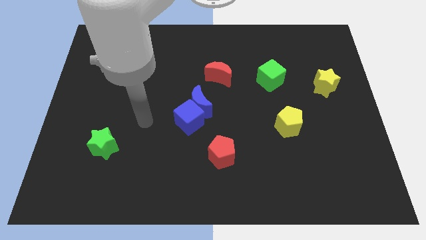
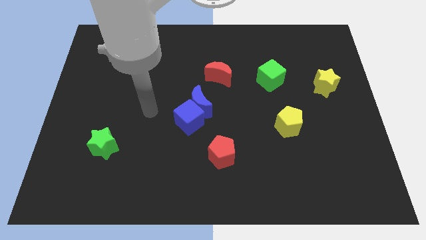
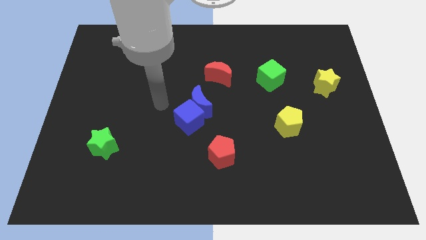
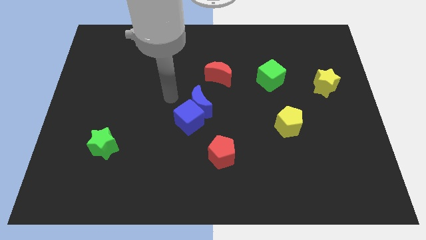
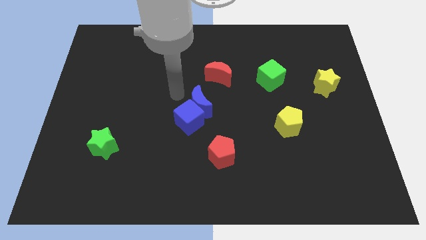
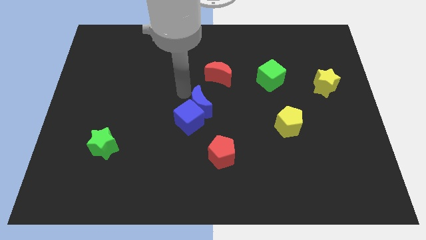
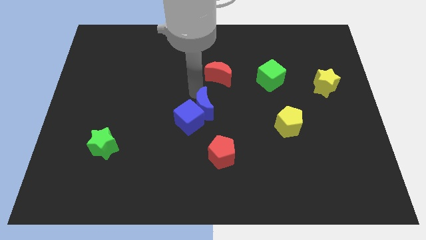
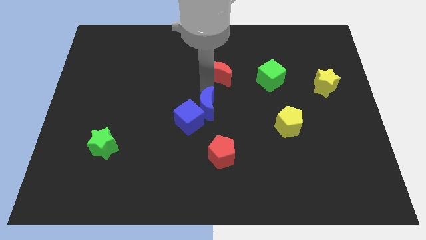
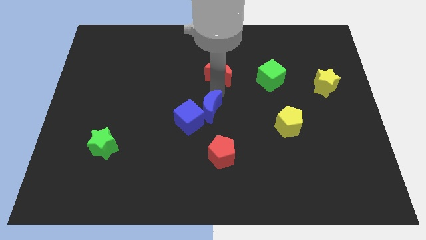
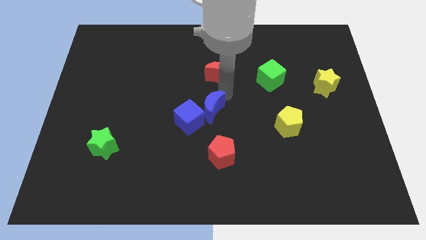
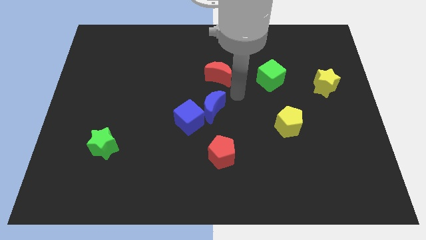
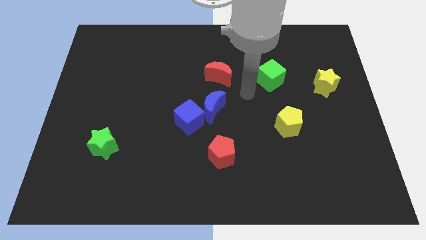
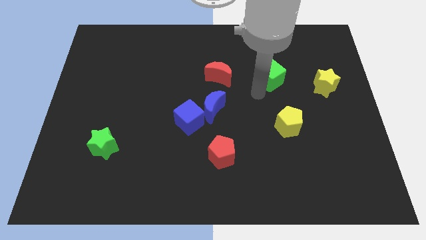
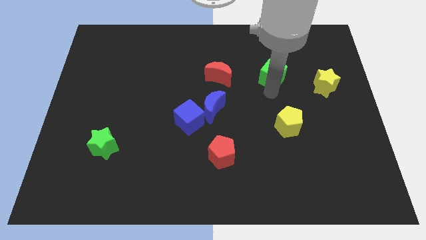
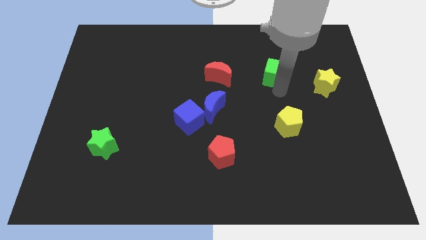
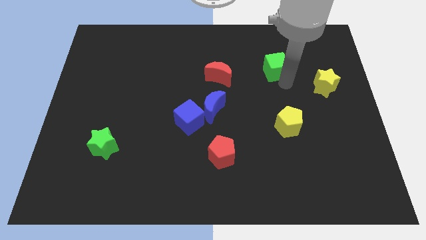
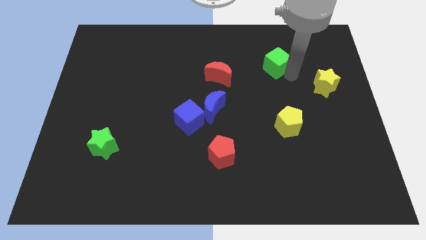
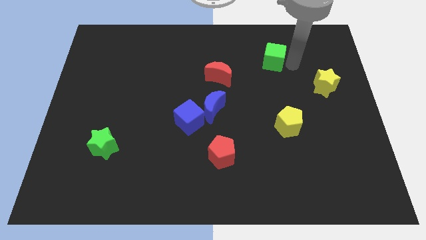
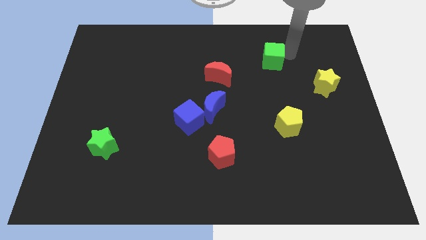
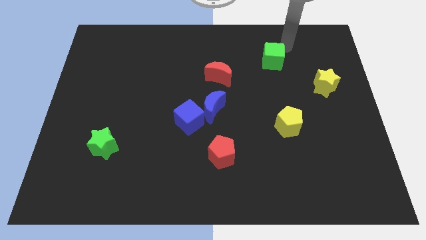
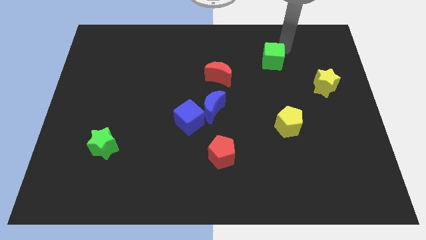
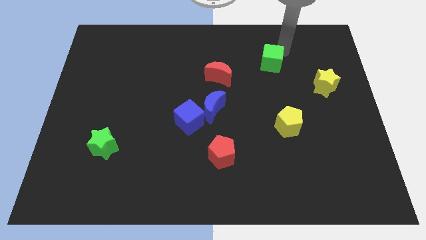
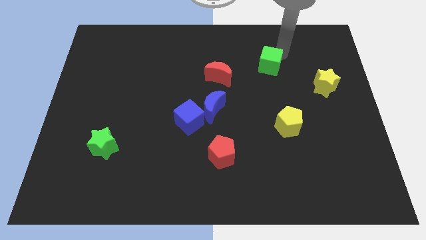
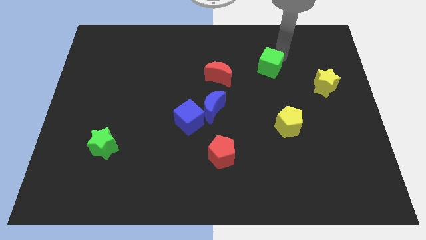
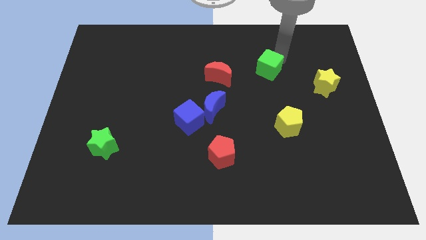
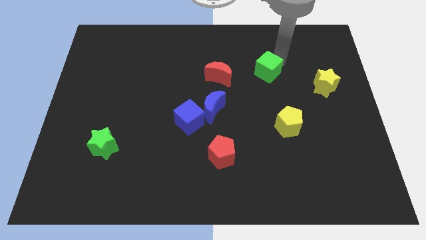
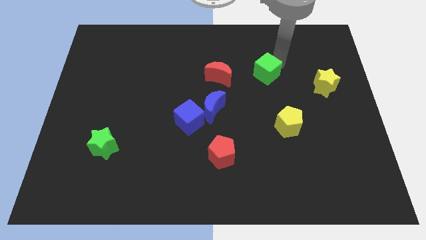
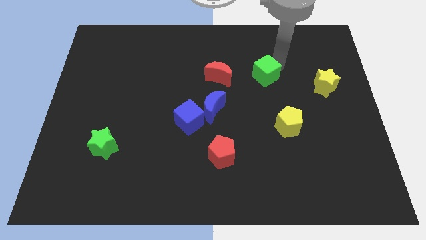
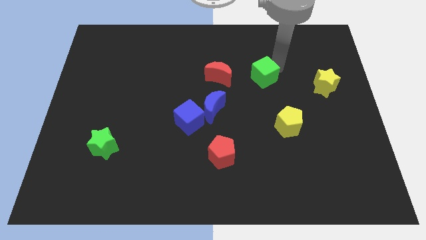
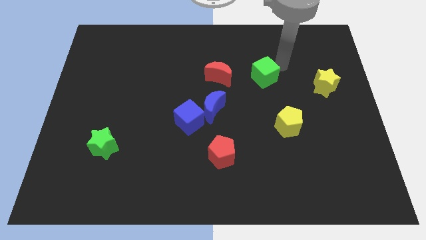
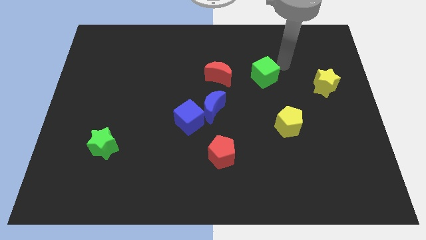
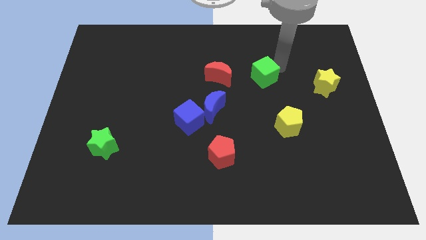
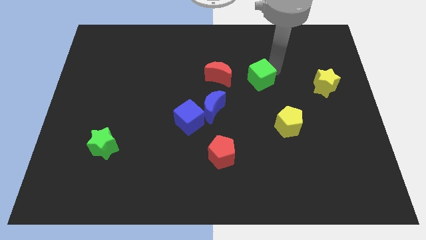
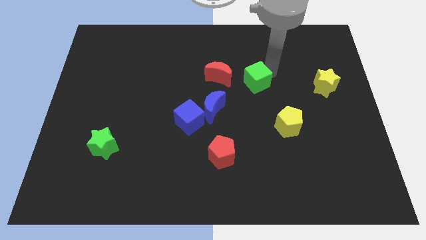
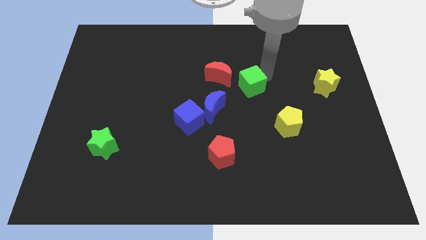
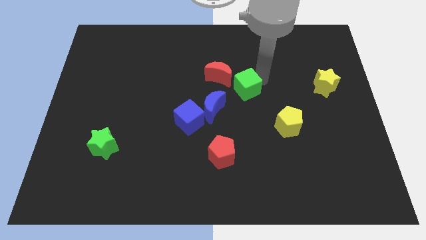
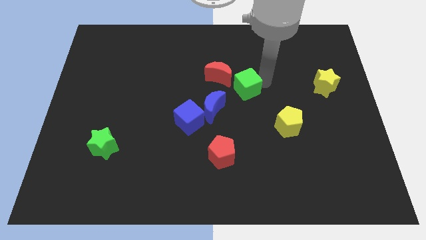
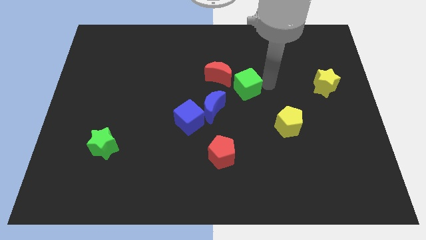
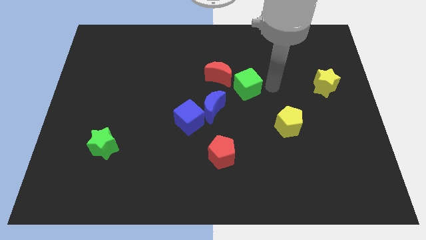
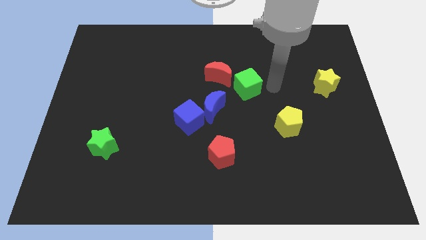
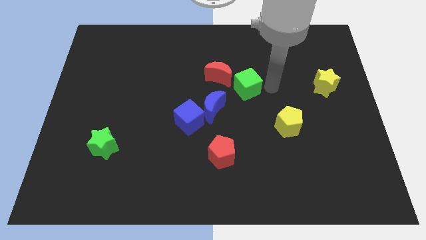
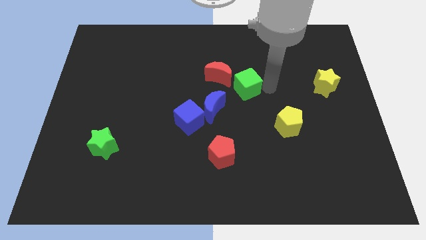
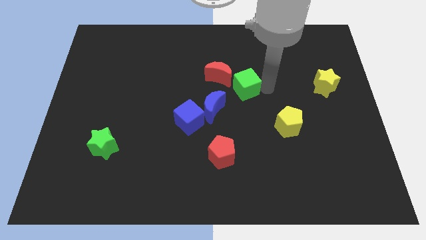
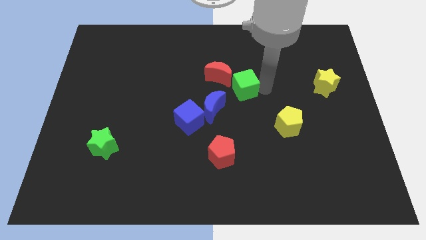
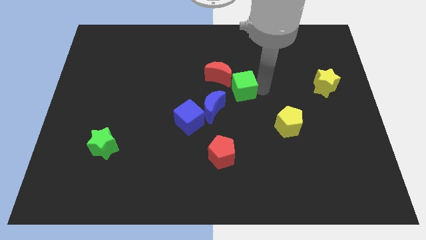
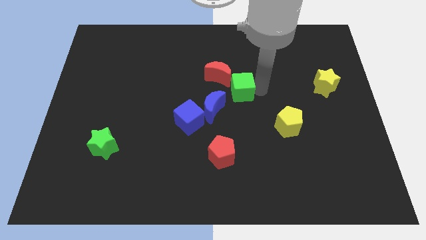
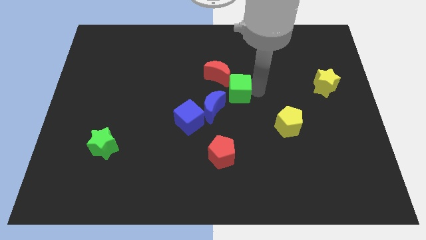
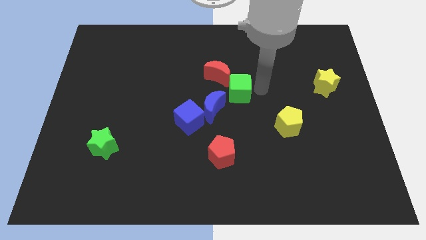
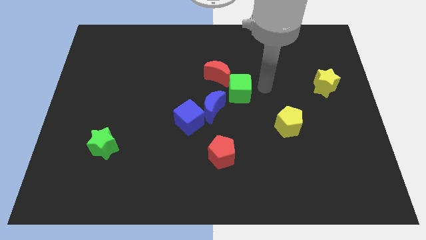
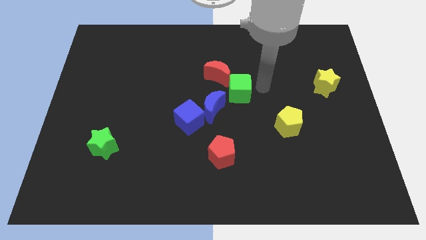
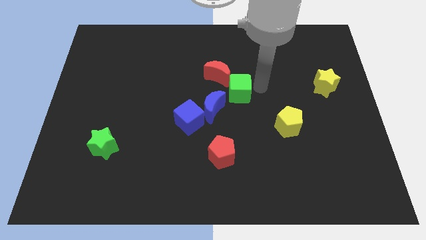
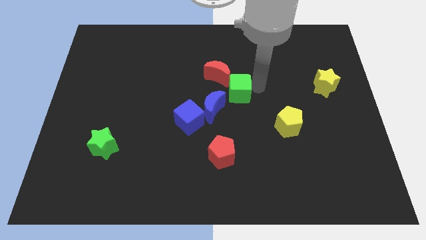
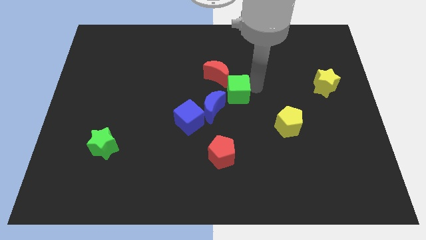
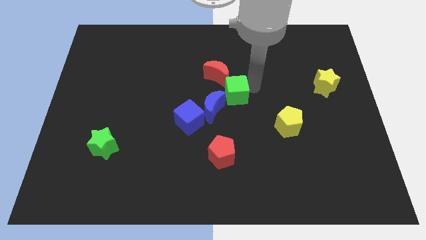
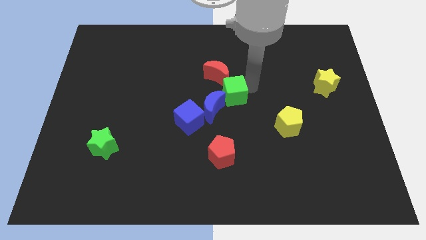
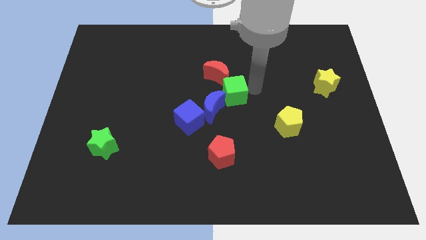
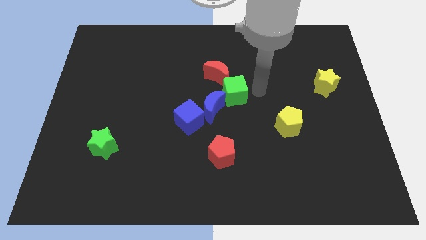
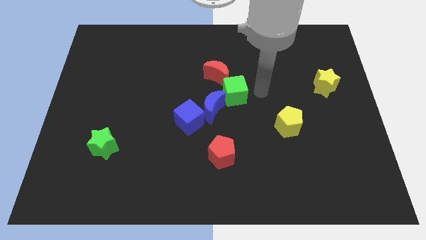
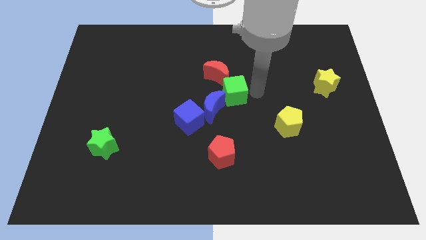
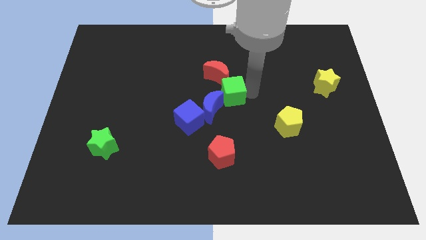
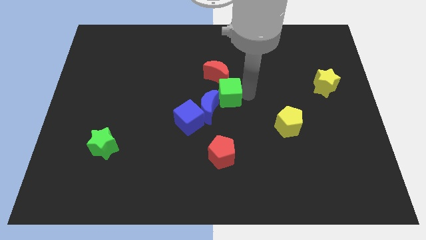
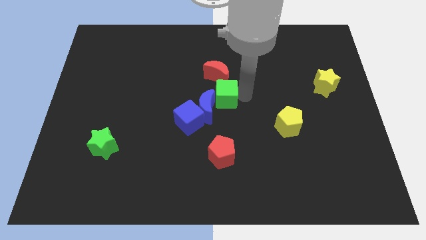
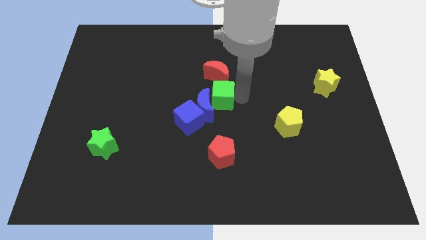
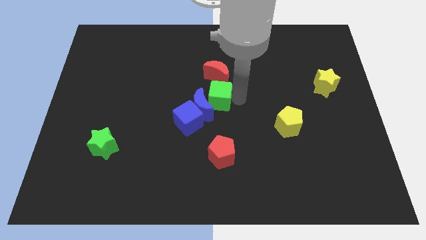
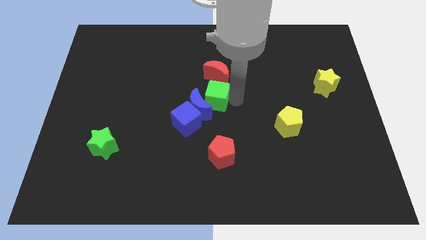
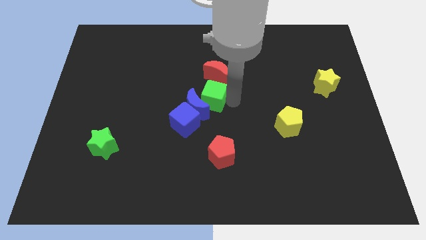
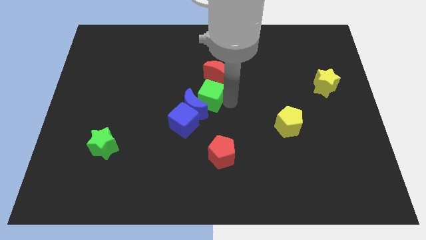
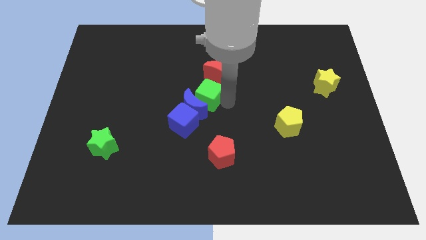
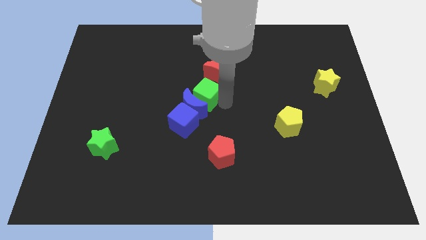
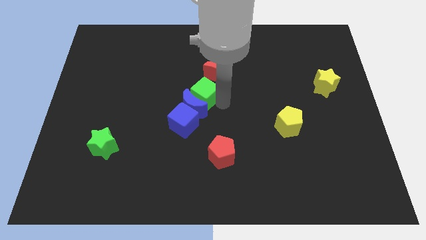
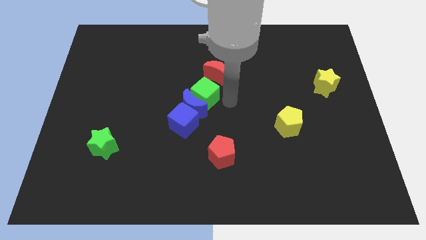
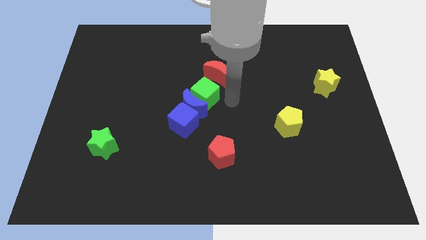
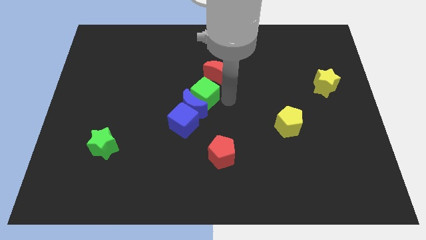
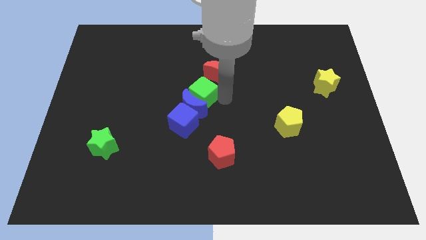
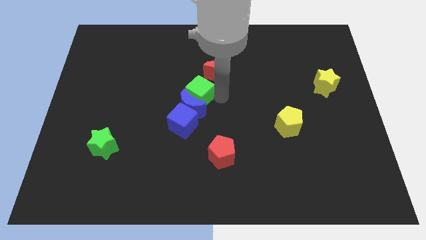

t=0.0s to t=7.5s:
push the green cube to the top left side of the blue moon
